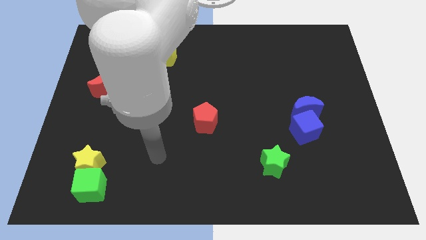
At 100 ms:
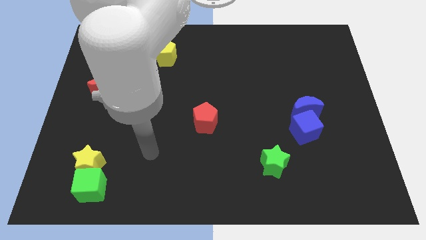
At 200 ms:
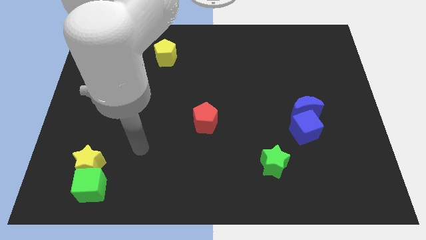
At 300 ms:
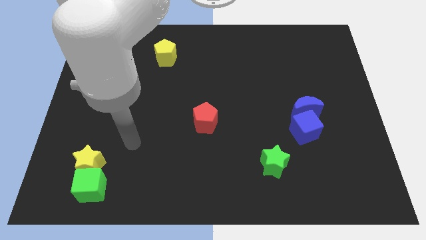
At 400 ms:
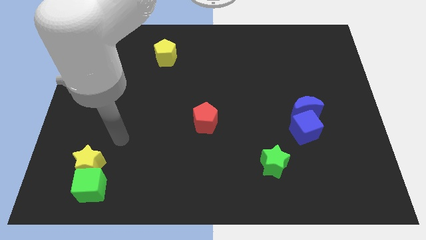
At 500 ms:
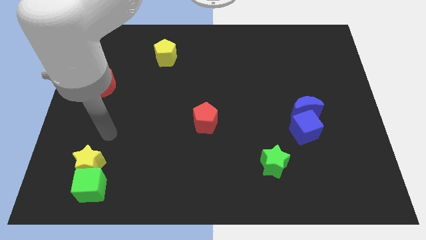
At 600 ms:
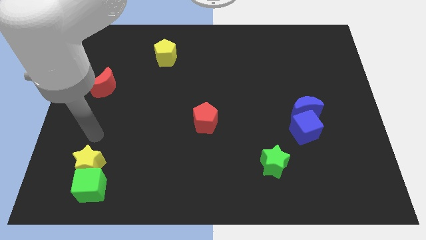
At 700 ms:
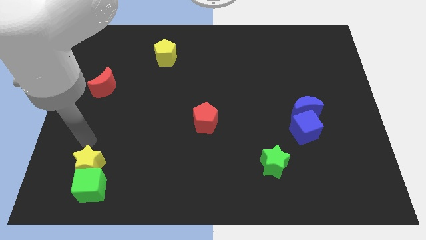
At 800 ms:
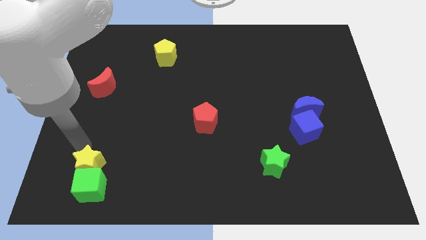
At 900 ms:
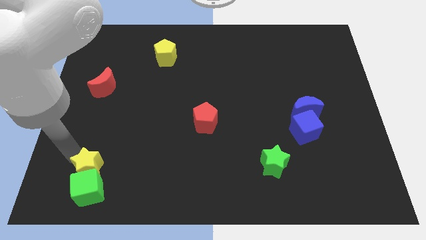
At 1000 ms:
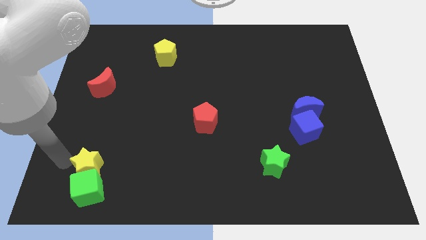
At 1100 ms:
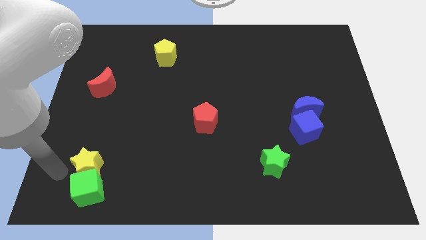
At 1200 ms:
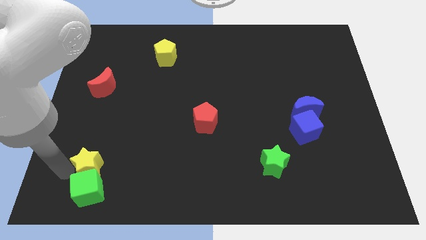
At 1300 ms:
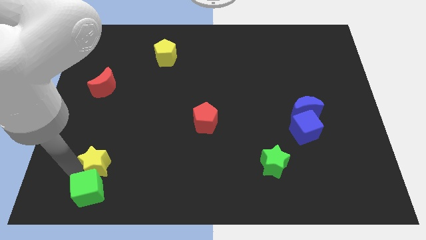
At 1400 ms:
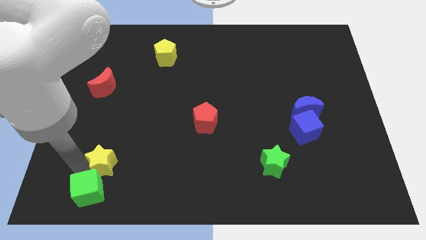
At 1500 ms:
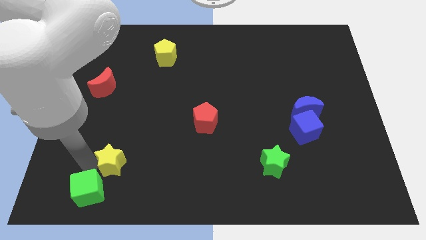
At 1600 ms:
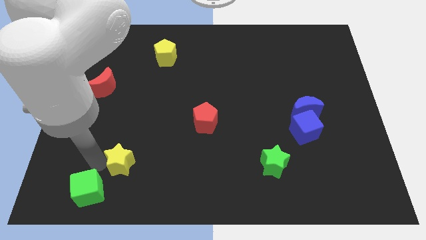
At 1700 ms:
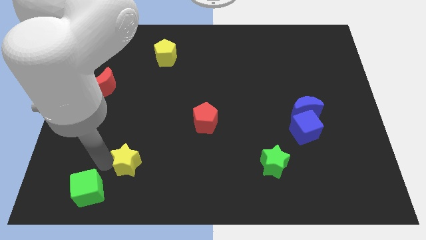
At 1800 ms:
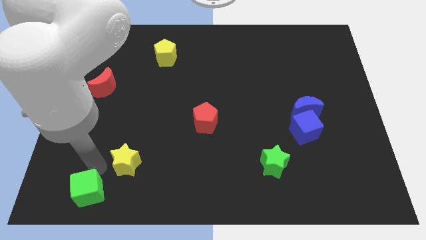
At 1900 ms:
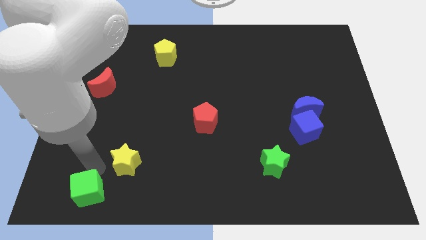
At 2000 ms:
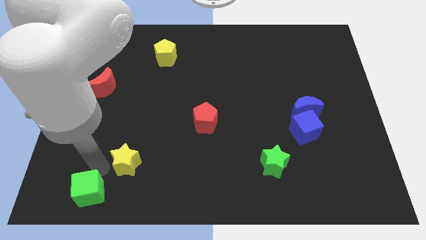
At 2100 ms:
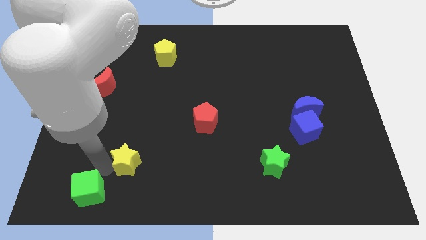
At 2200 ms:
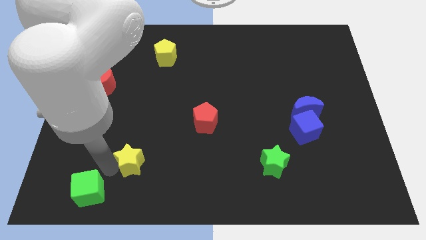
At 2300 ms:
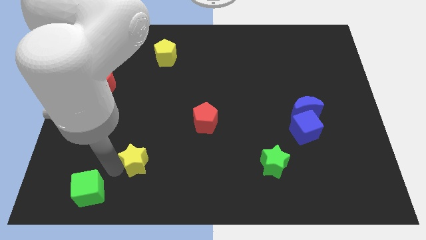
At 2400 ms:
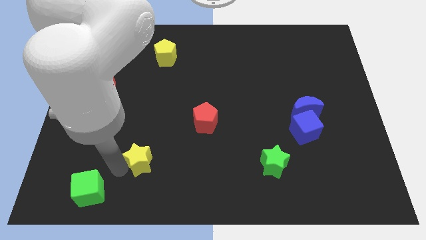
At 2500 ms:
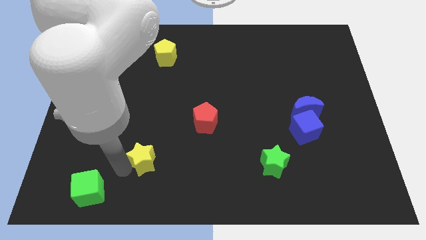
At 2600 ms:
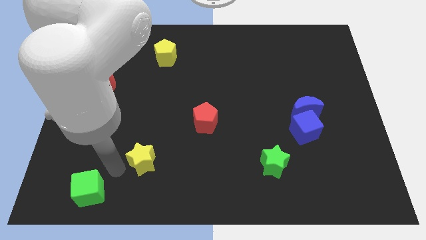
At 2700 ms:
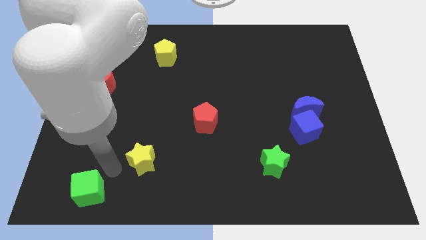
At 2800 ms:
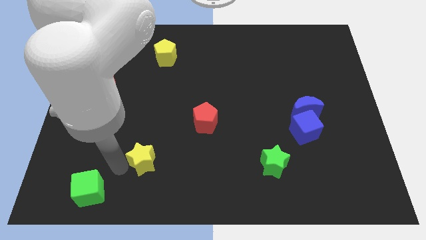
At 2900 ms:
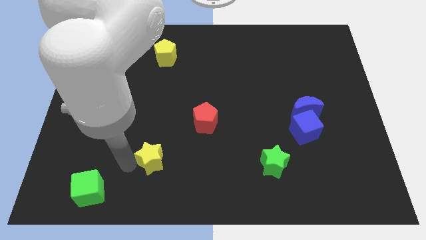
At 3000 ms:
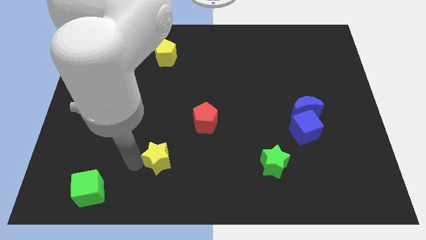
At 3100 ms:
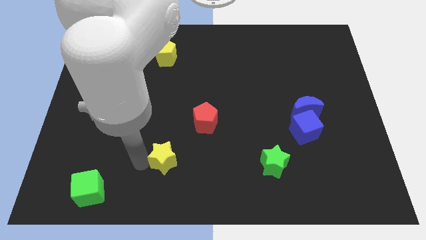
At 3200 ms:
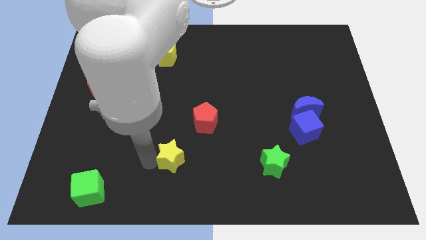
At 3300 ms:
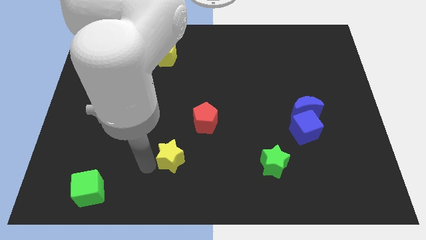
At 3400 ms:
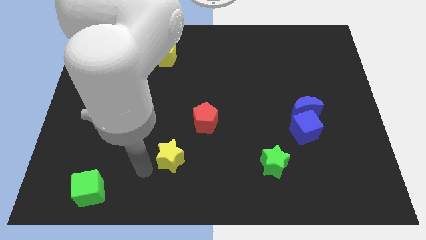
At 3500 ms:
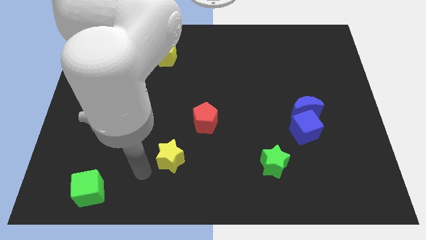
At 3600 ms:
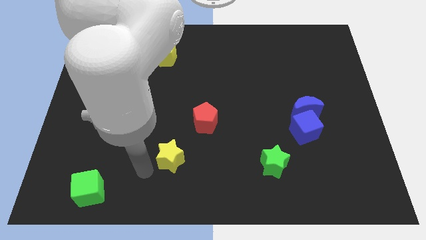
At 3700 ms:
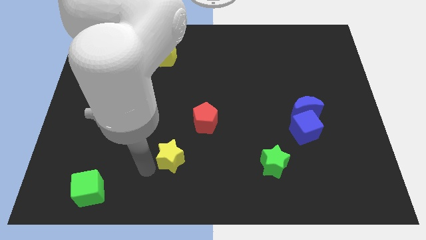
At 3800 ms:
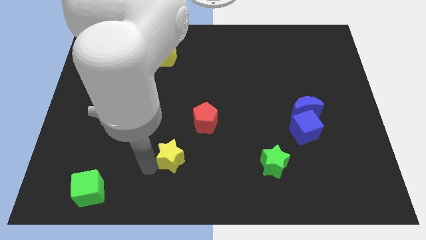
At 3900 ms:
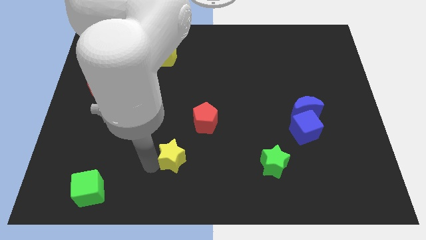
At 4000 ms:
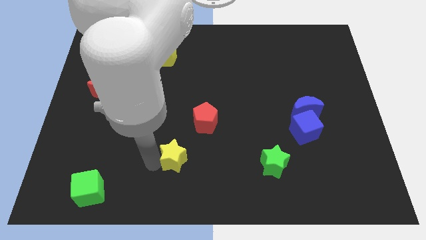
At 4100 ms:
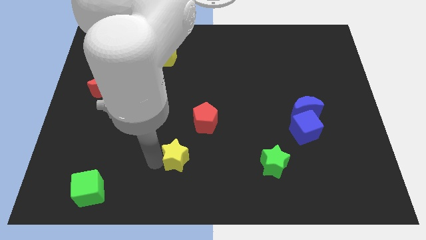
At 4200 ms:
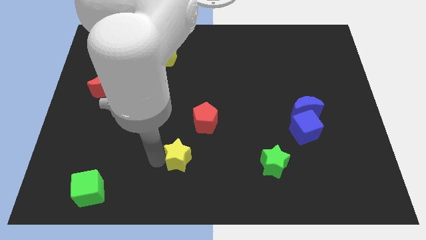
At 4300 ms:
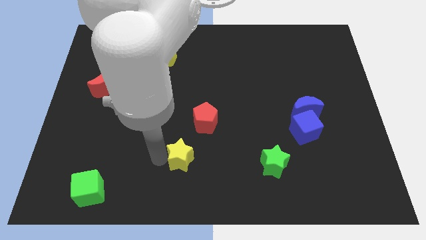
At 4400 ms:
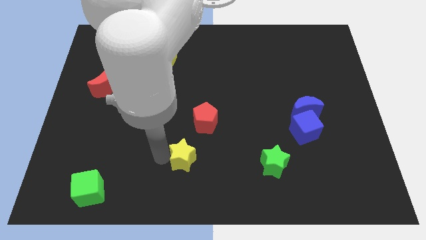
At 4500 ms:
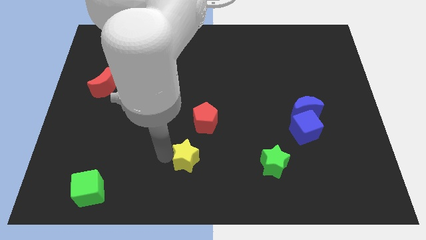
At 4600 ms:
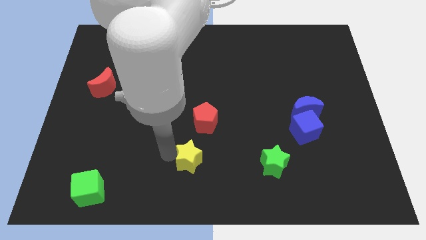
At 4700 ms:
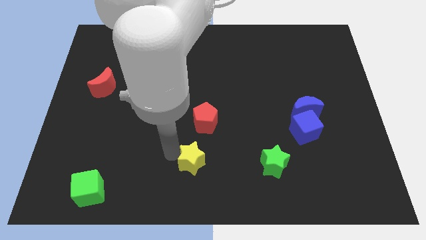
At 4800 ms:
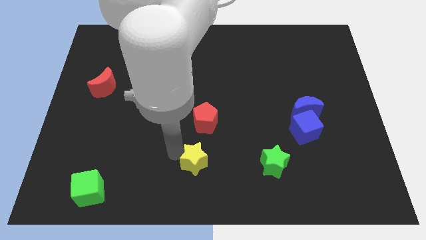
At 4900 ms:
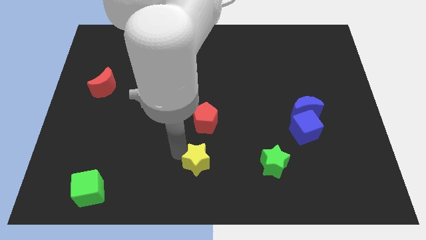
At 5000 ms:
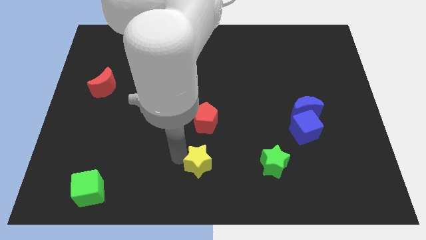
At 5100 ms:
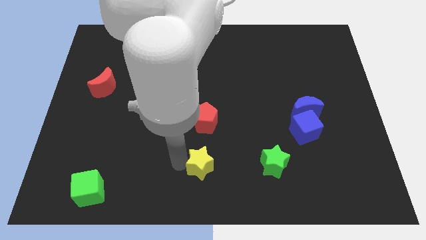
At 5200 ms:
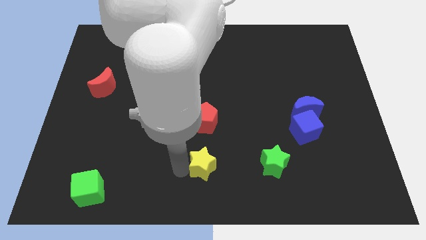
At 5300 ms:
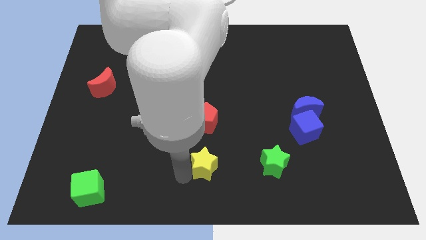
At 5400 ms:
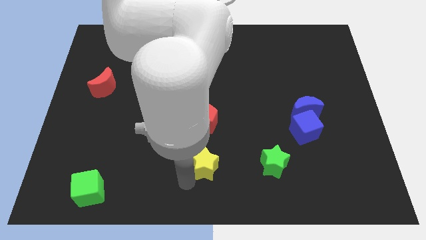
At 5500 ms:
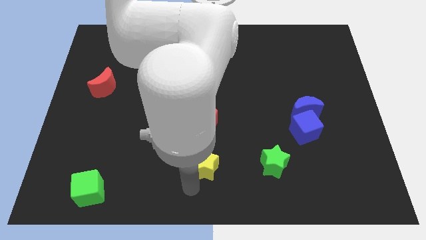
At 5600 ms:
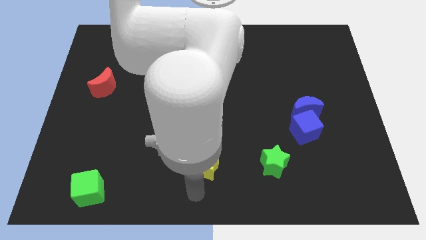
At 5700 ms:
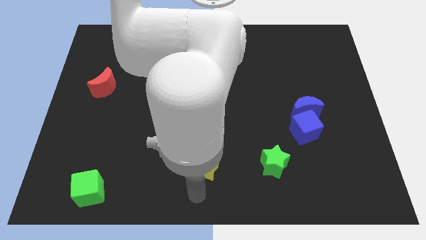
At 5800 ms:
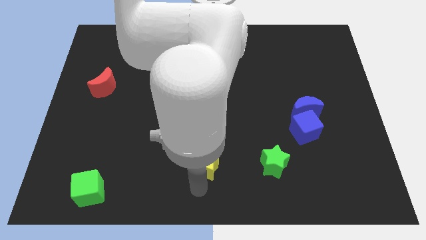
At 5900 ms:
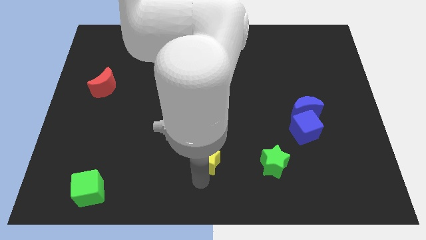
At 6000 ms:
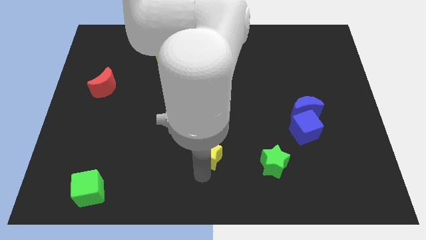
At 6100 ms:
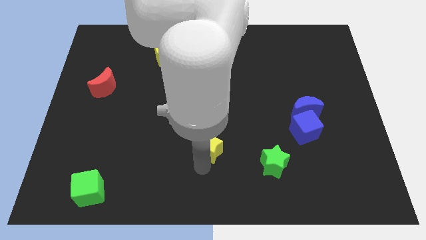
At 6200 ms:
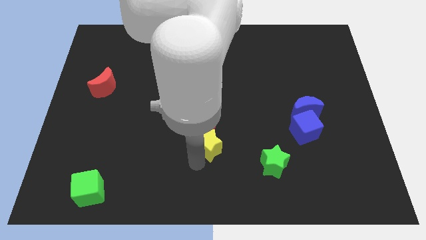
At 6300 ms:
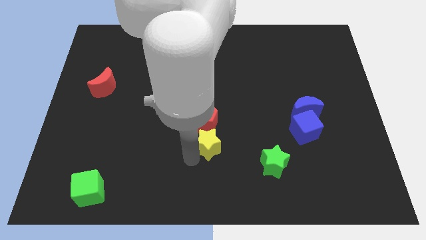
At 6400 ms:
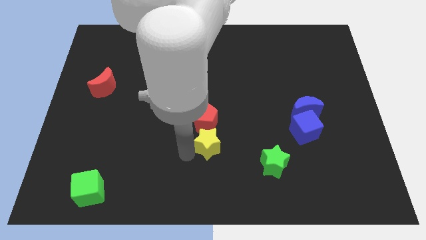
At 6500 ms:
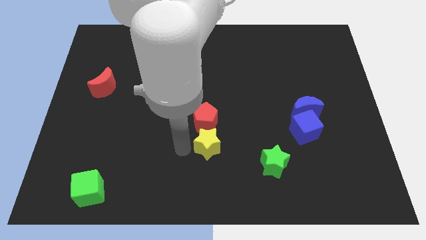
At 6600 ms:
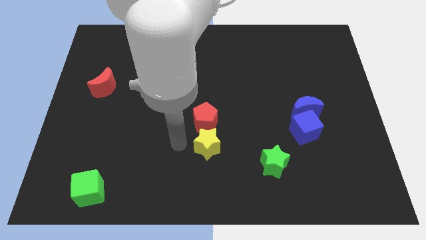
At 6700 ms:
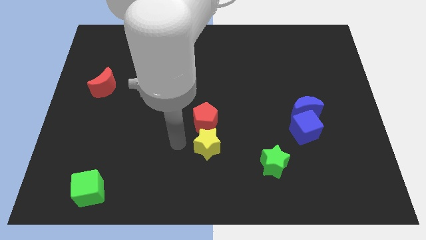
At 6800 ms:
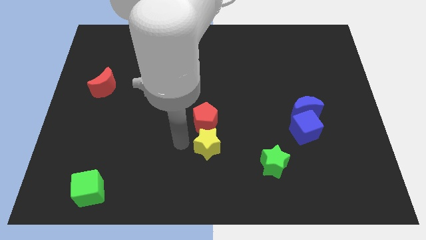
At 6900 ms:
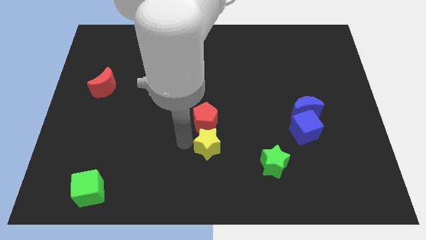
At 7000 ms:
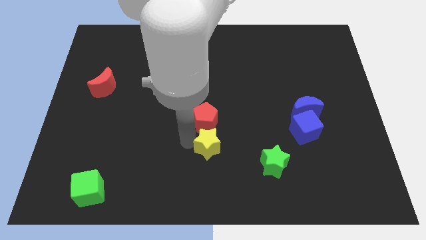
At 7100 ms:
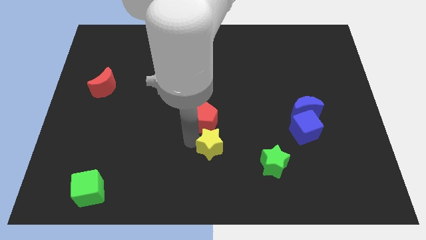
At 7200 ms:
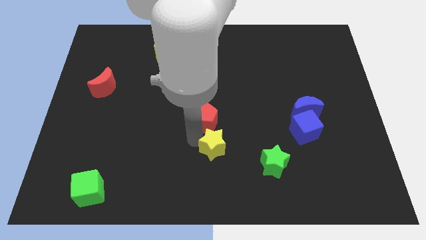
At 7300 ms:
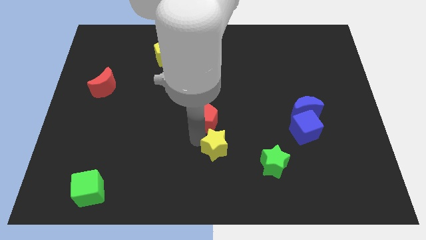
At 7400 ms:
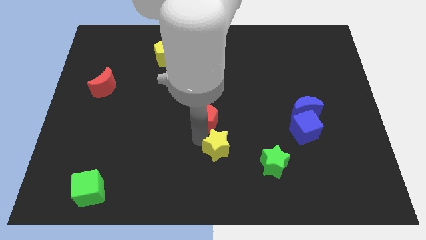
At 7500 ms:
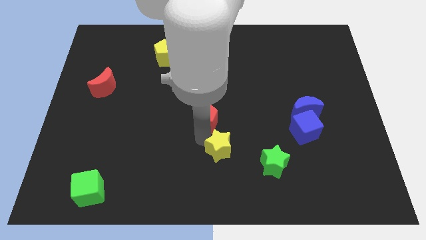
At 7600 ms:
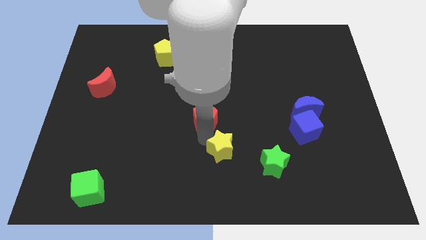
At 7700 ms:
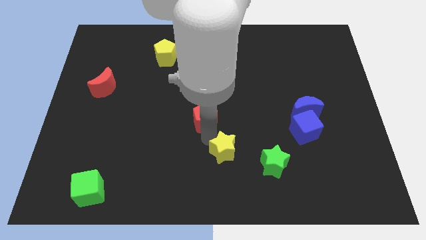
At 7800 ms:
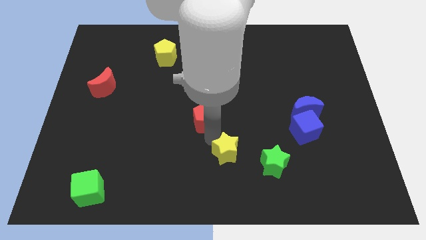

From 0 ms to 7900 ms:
put the yellow star diagonally up and to the left of the green star
